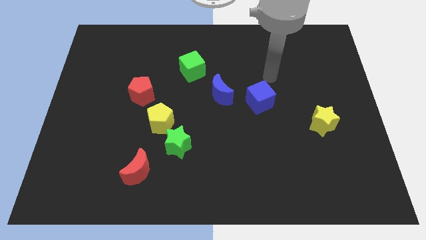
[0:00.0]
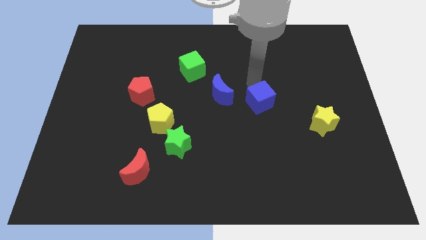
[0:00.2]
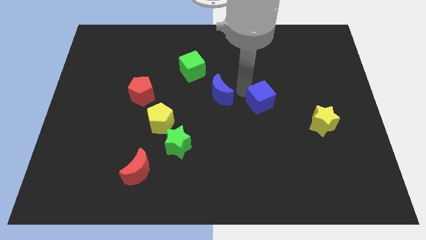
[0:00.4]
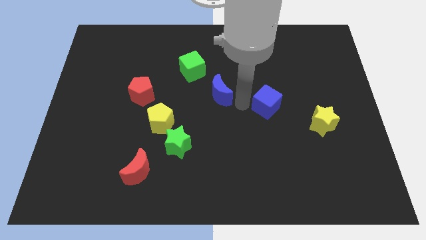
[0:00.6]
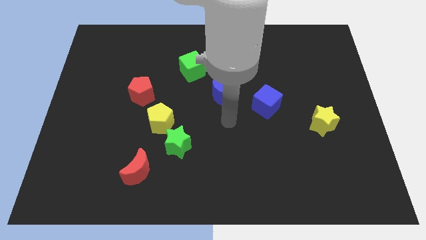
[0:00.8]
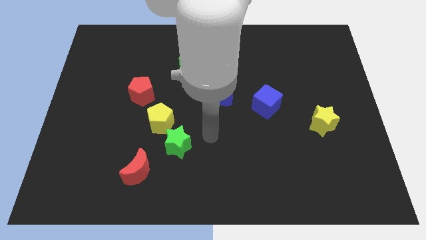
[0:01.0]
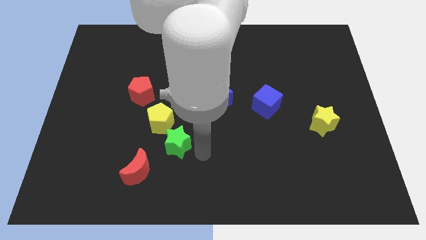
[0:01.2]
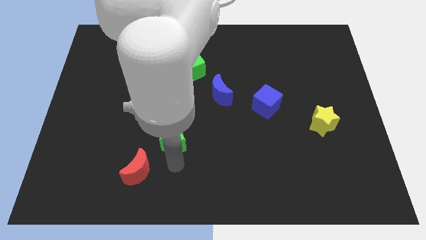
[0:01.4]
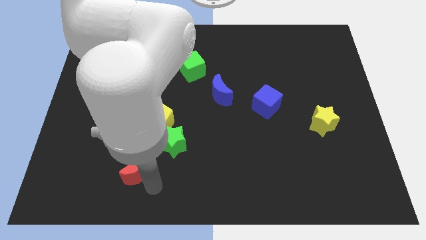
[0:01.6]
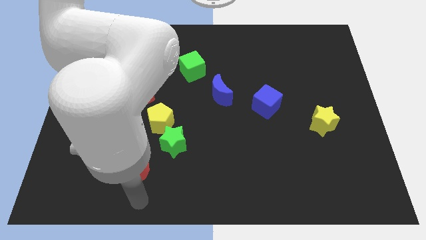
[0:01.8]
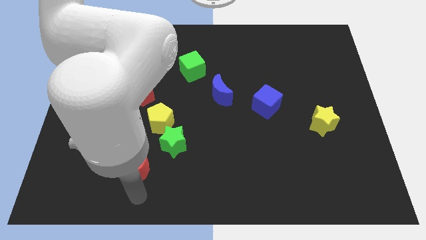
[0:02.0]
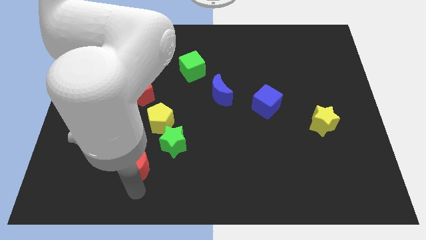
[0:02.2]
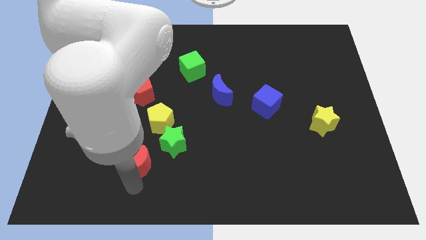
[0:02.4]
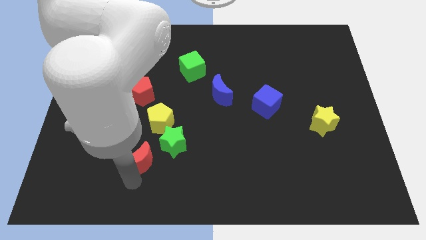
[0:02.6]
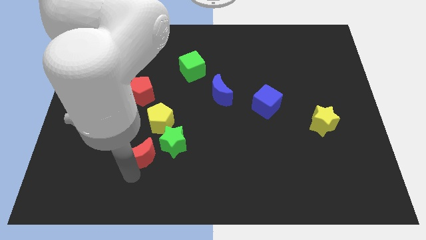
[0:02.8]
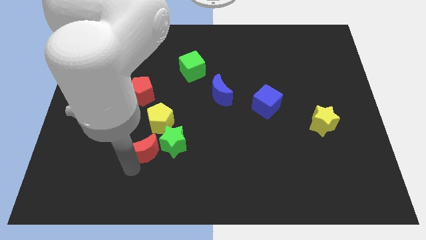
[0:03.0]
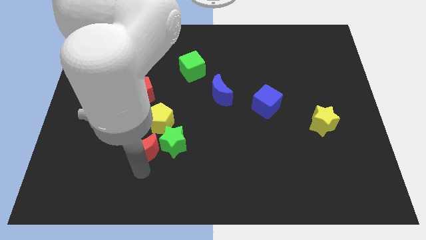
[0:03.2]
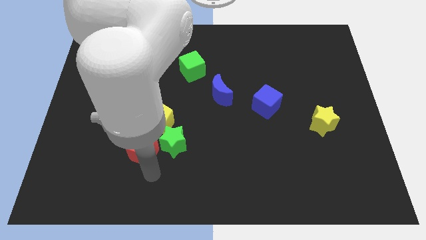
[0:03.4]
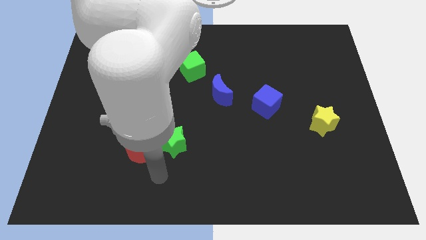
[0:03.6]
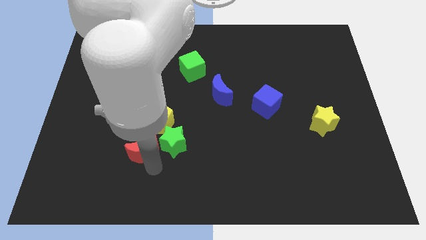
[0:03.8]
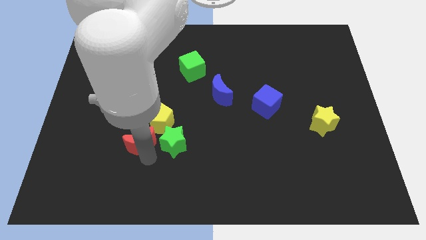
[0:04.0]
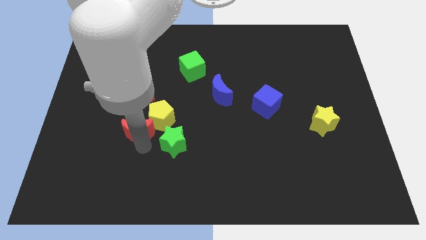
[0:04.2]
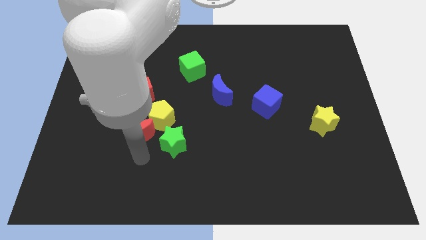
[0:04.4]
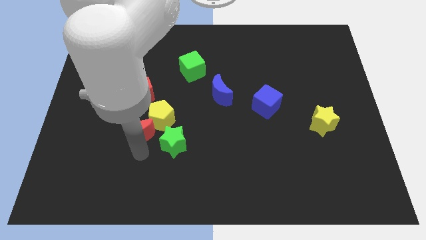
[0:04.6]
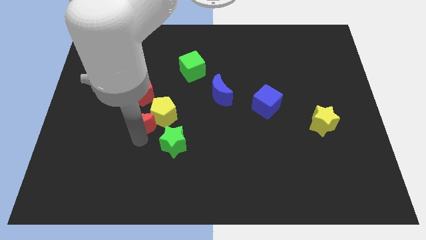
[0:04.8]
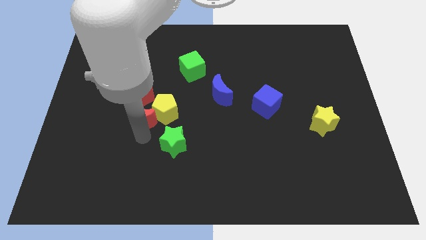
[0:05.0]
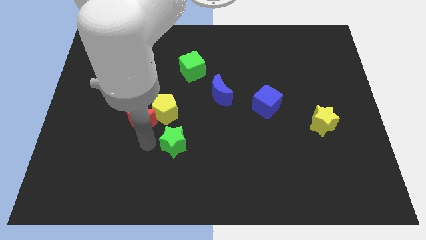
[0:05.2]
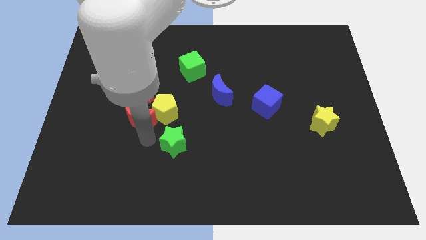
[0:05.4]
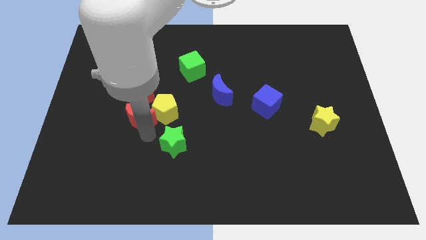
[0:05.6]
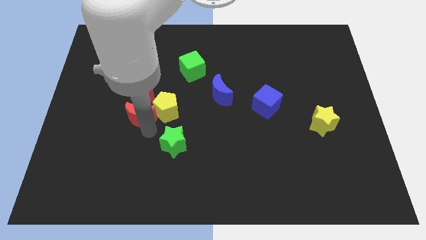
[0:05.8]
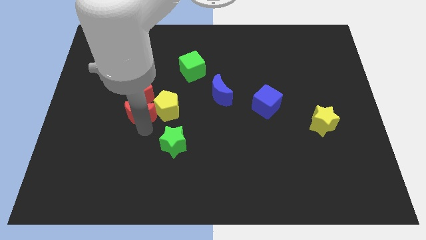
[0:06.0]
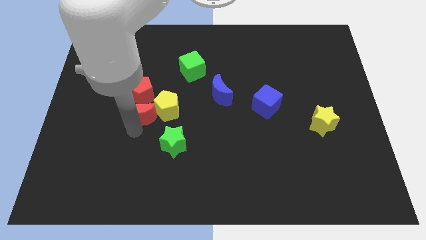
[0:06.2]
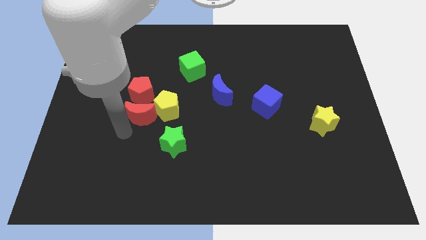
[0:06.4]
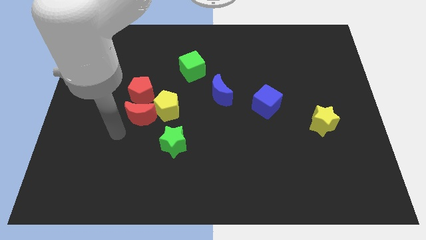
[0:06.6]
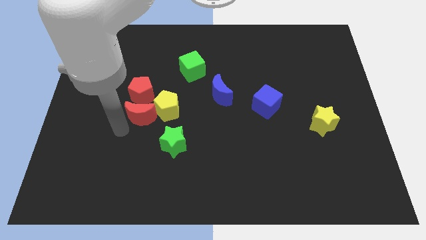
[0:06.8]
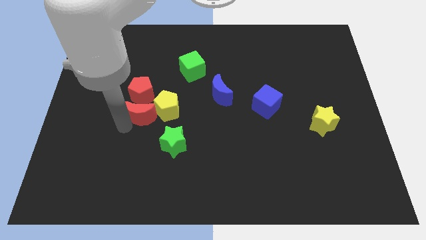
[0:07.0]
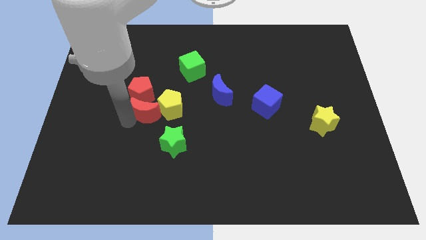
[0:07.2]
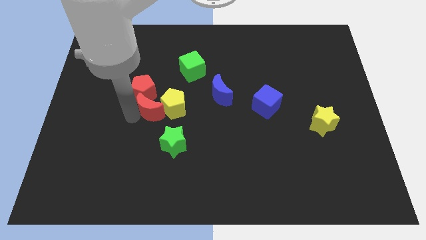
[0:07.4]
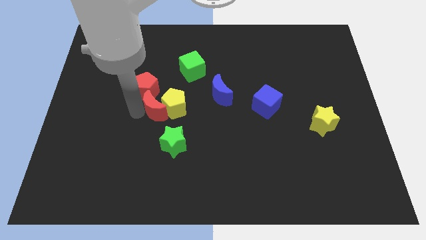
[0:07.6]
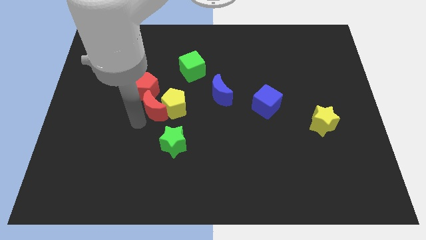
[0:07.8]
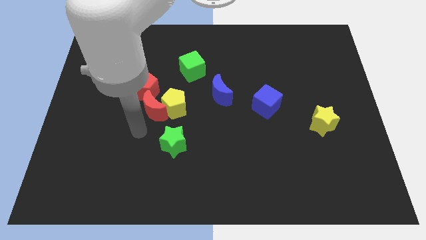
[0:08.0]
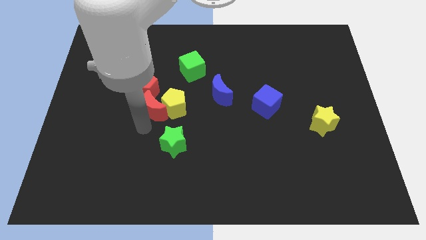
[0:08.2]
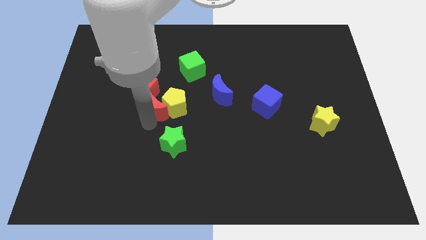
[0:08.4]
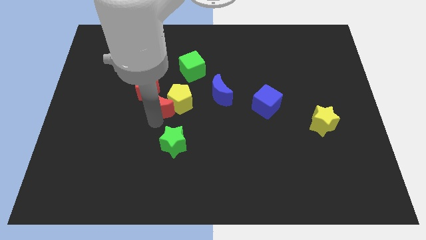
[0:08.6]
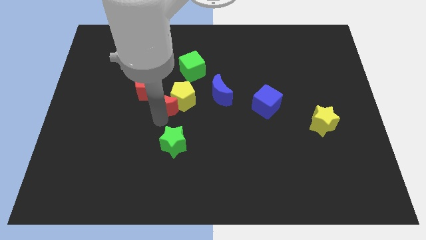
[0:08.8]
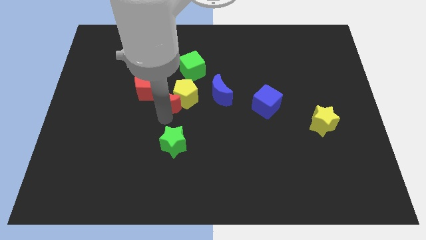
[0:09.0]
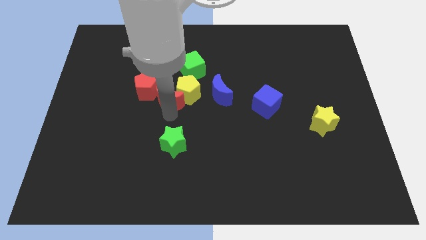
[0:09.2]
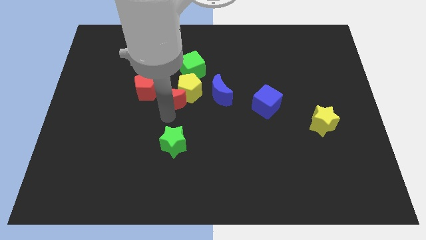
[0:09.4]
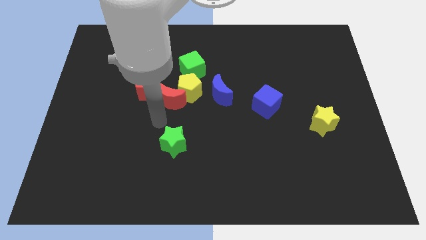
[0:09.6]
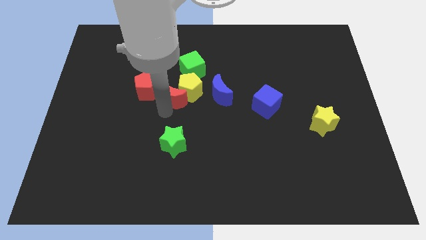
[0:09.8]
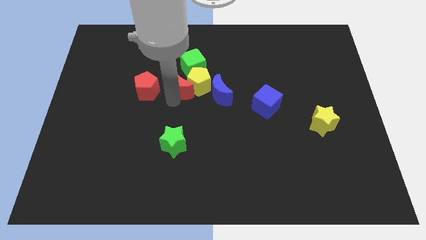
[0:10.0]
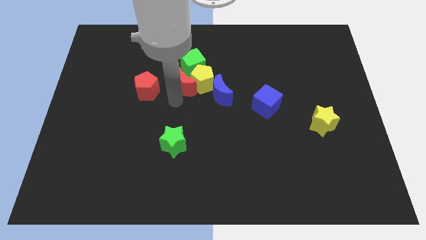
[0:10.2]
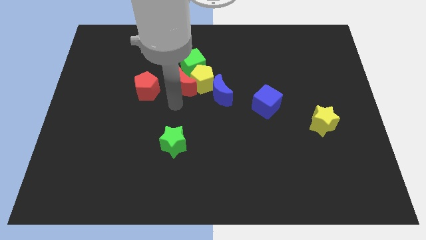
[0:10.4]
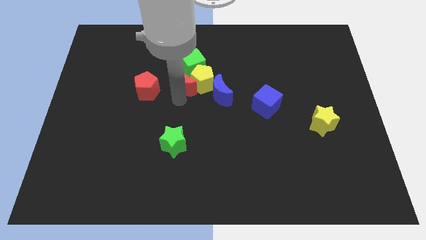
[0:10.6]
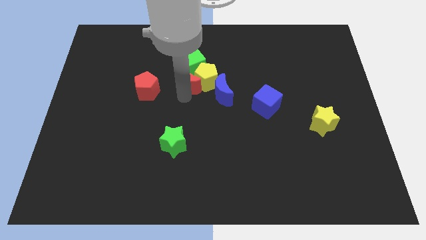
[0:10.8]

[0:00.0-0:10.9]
move the red moon close to the green cube

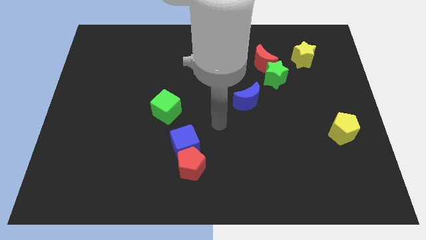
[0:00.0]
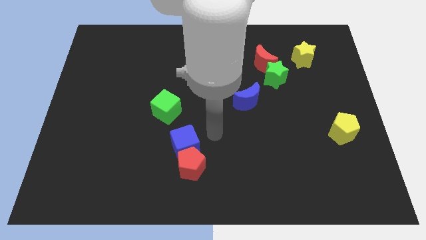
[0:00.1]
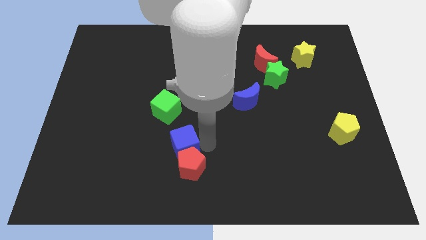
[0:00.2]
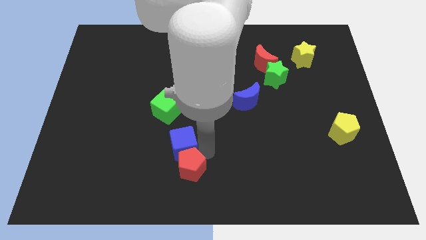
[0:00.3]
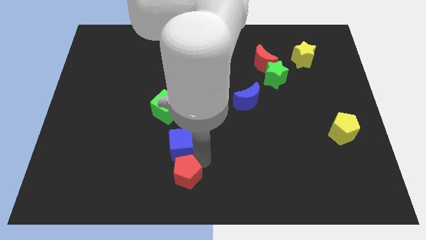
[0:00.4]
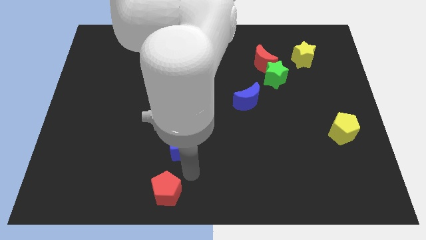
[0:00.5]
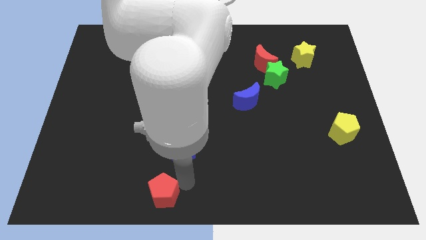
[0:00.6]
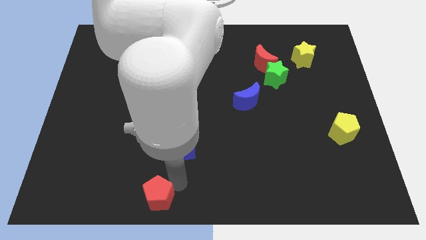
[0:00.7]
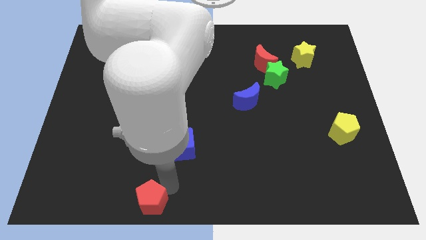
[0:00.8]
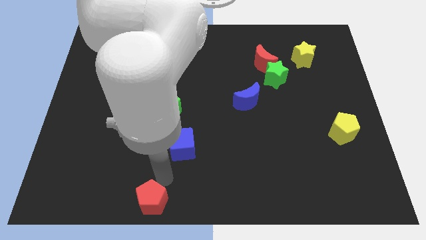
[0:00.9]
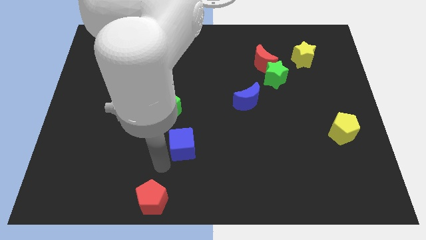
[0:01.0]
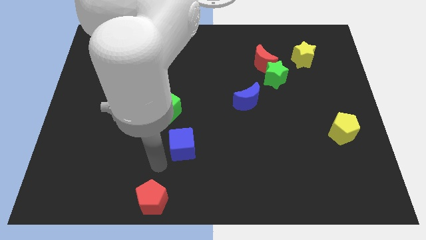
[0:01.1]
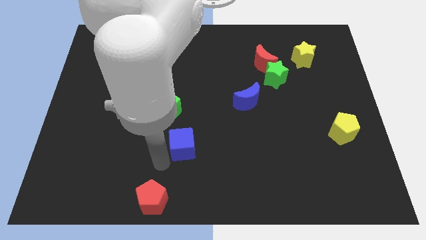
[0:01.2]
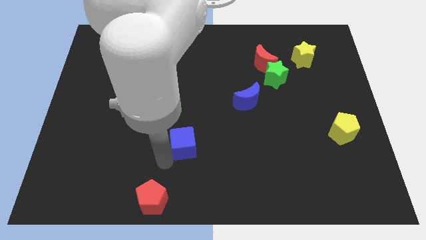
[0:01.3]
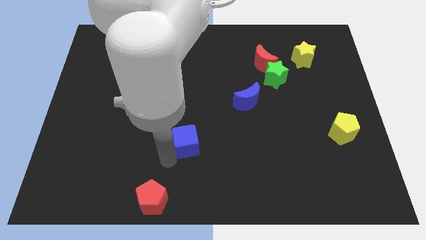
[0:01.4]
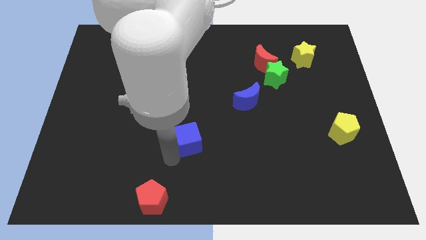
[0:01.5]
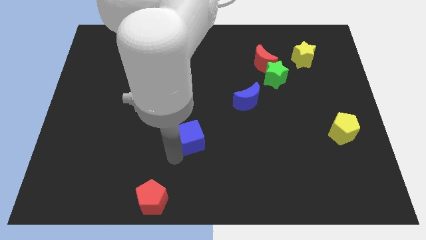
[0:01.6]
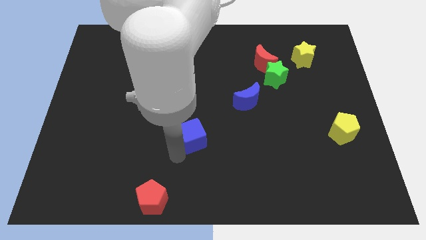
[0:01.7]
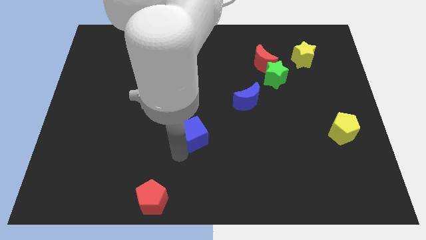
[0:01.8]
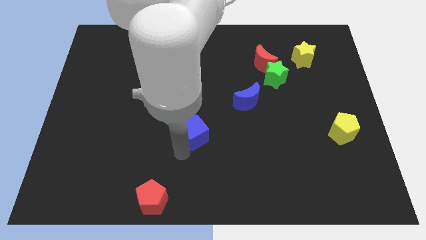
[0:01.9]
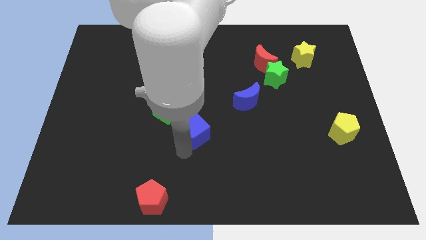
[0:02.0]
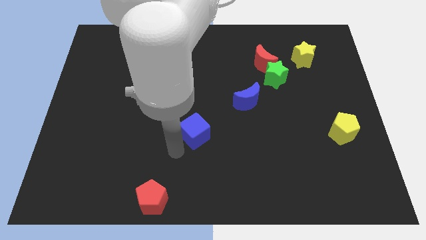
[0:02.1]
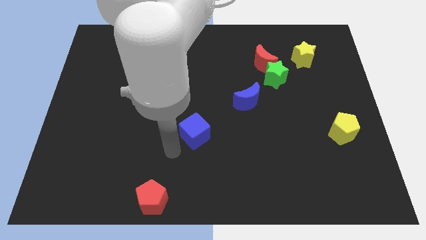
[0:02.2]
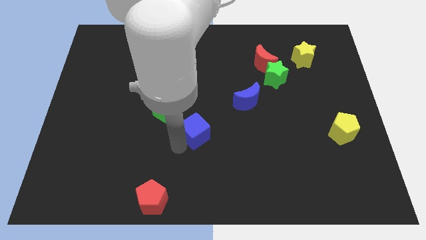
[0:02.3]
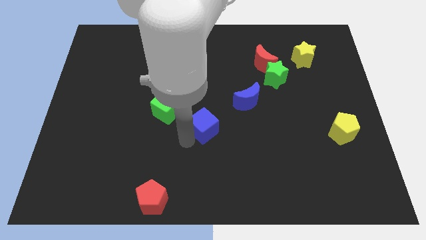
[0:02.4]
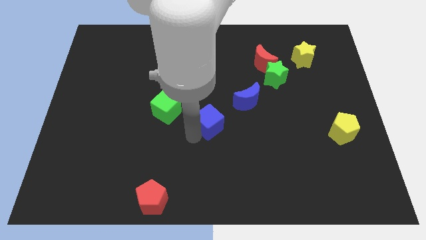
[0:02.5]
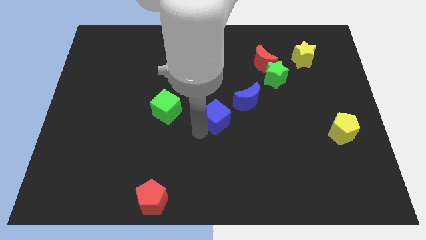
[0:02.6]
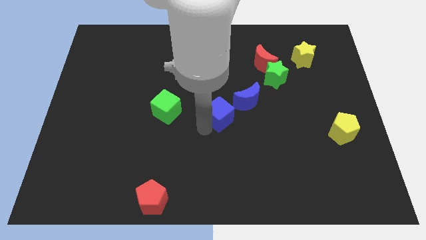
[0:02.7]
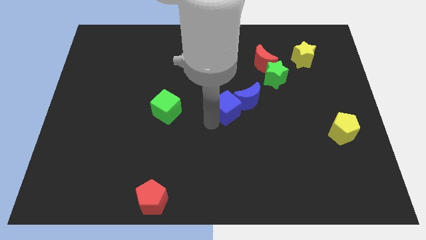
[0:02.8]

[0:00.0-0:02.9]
put the blue cube close to the blue moon
